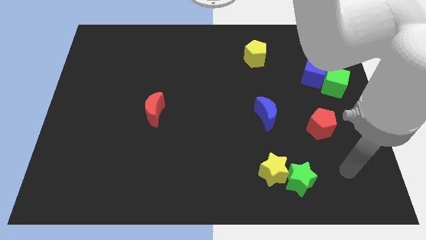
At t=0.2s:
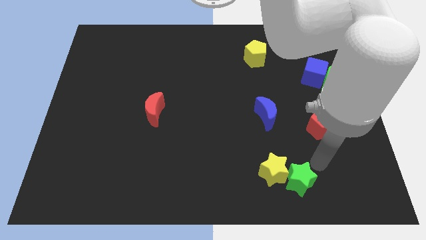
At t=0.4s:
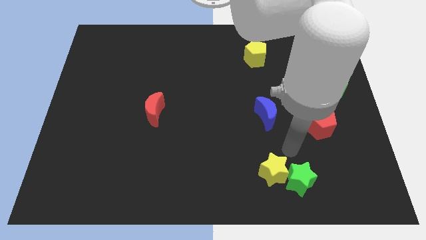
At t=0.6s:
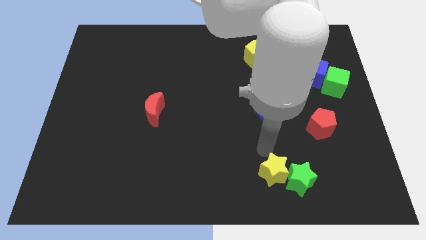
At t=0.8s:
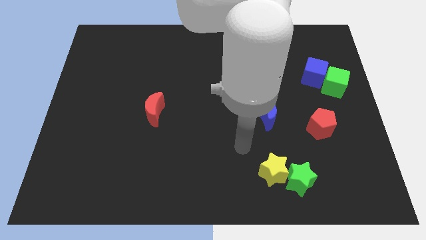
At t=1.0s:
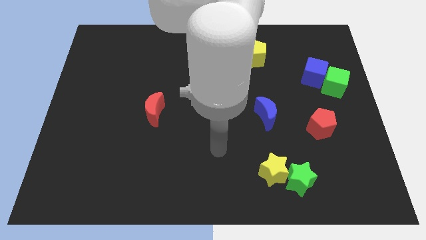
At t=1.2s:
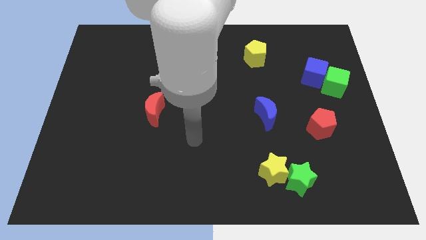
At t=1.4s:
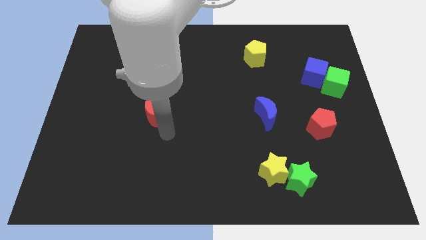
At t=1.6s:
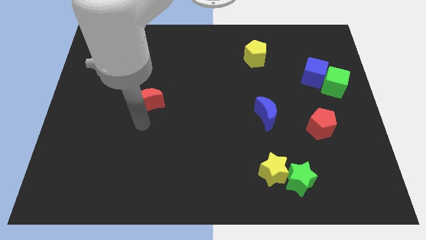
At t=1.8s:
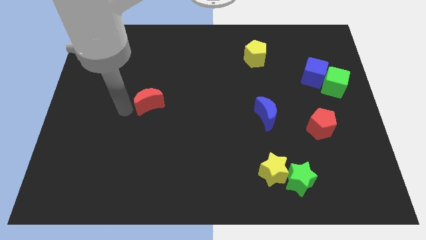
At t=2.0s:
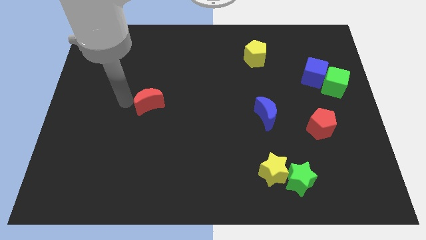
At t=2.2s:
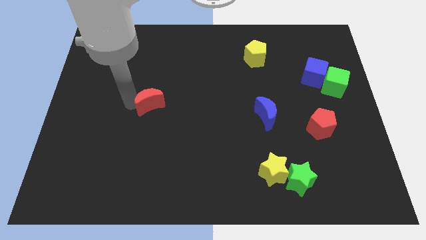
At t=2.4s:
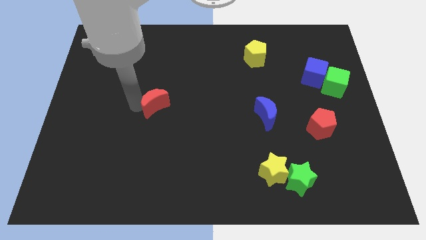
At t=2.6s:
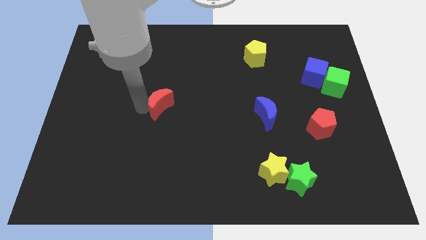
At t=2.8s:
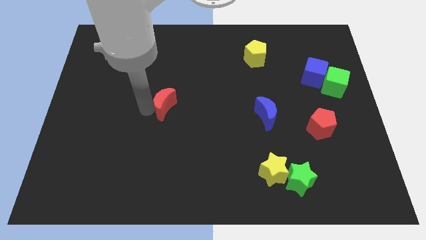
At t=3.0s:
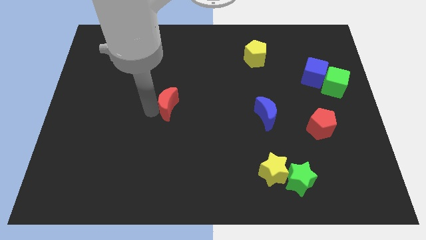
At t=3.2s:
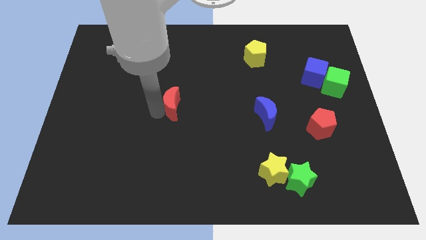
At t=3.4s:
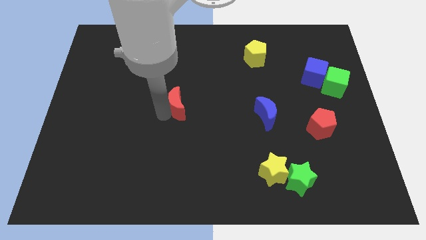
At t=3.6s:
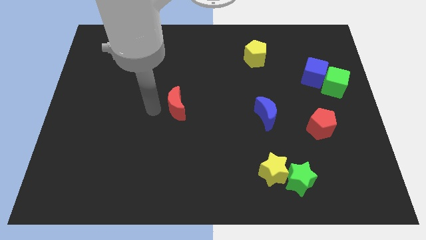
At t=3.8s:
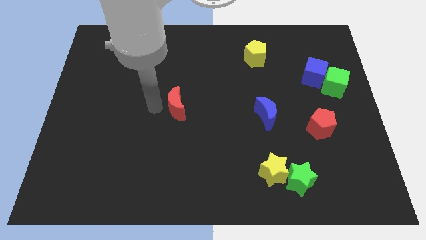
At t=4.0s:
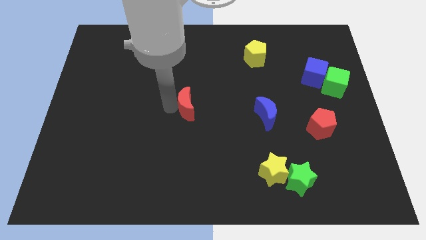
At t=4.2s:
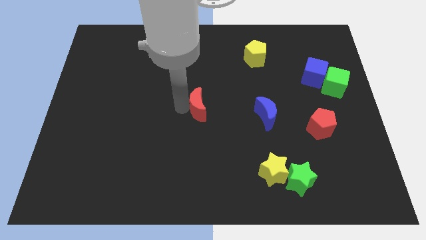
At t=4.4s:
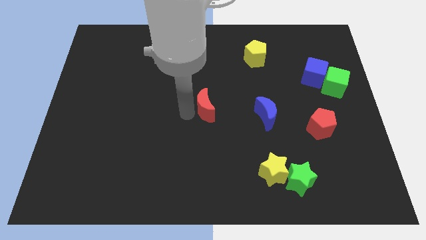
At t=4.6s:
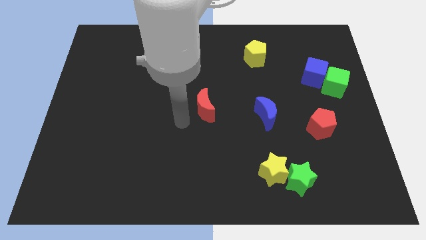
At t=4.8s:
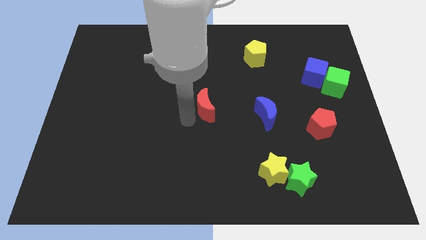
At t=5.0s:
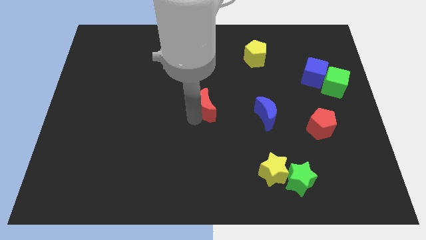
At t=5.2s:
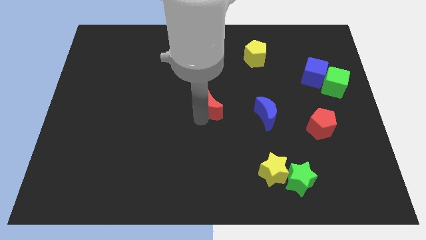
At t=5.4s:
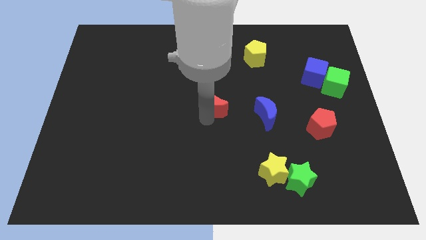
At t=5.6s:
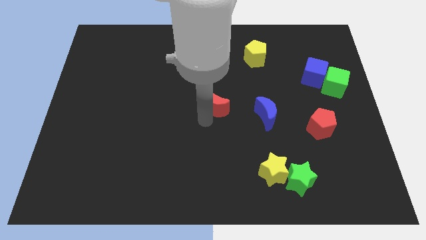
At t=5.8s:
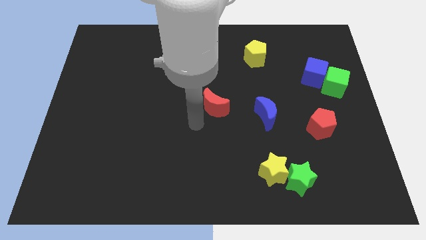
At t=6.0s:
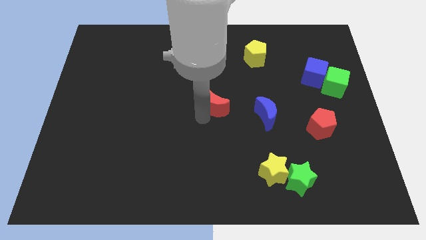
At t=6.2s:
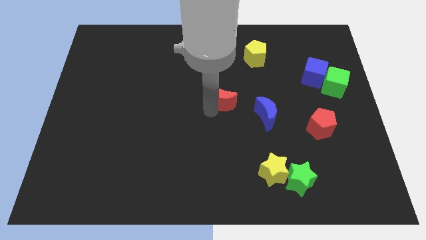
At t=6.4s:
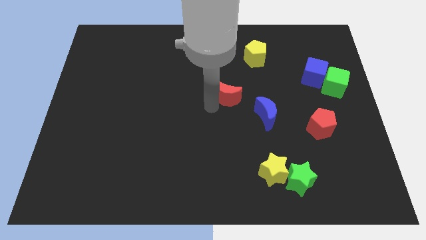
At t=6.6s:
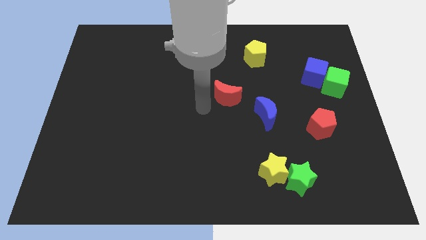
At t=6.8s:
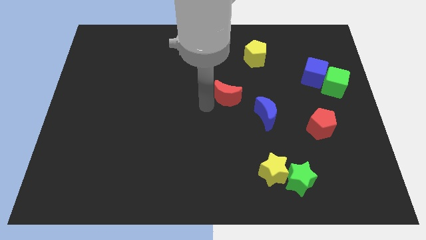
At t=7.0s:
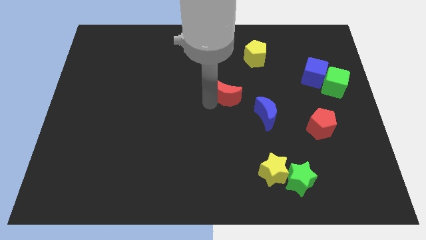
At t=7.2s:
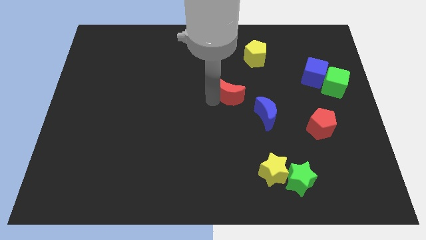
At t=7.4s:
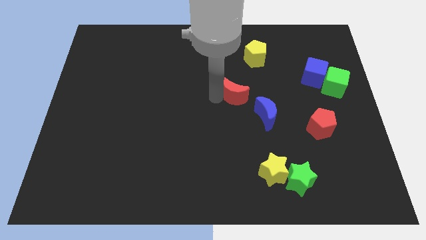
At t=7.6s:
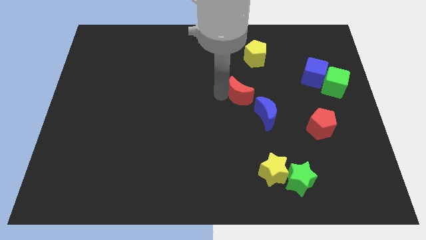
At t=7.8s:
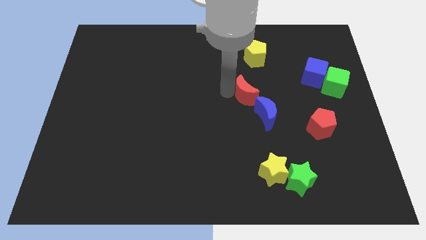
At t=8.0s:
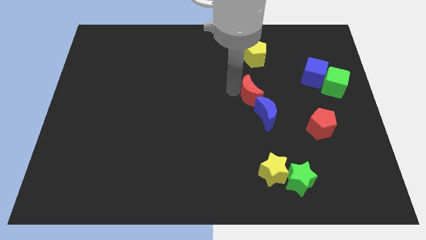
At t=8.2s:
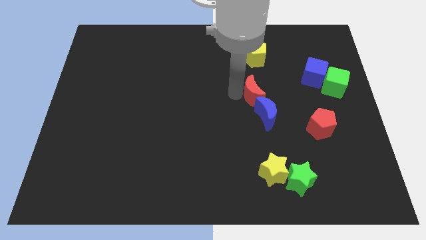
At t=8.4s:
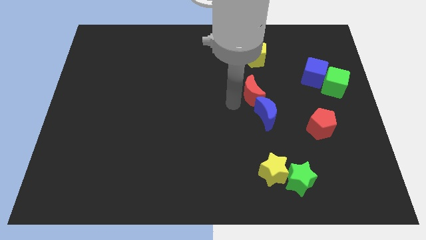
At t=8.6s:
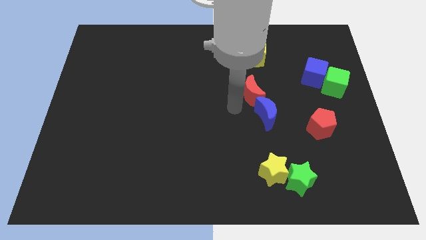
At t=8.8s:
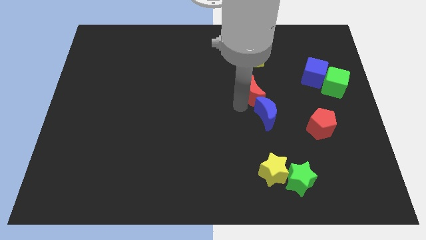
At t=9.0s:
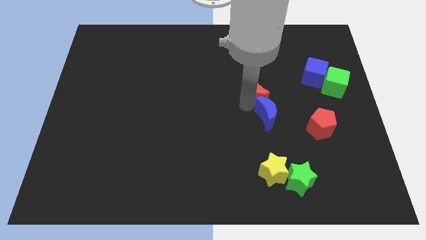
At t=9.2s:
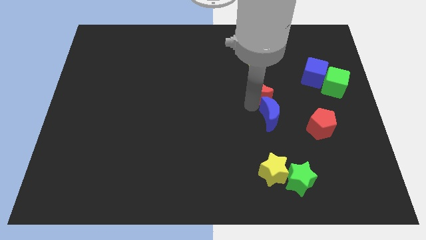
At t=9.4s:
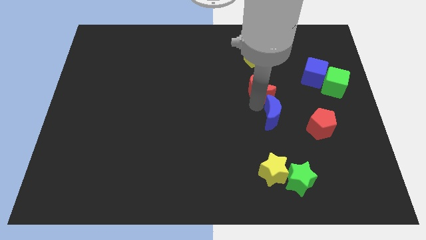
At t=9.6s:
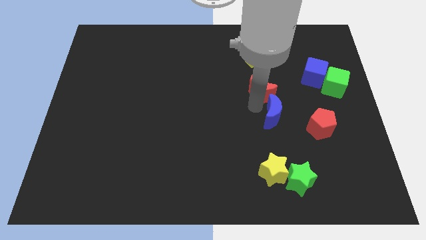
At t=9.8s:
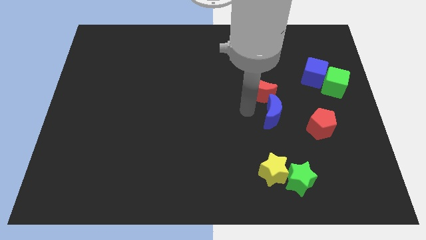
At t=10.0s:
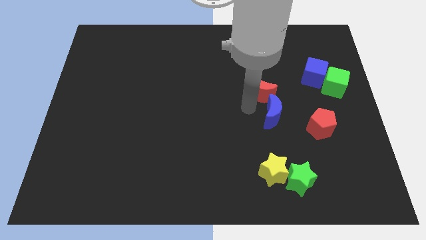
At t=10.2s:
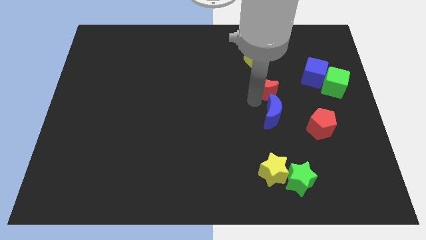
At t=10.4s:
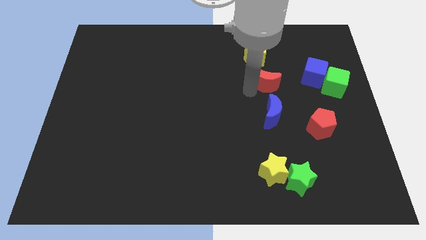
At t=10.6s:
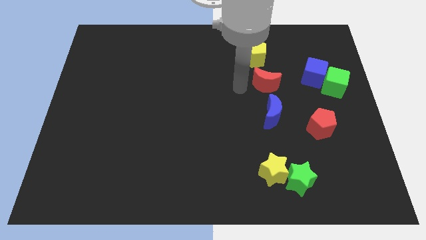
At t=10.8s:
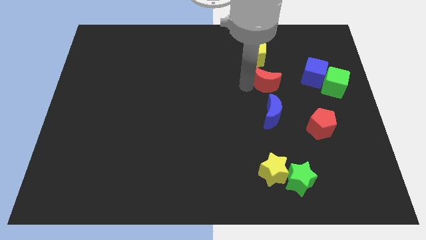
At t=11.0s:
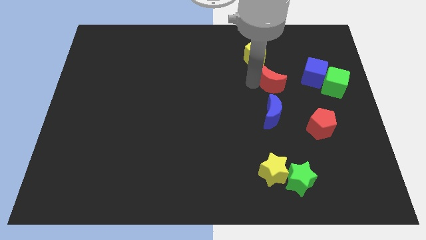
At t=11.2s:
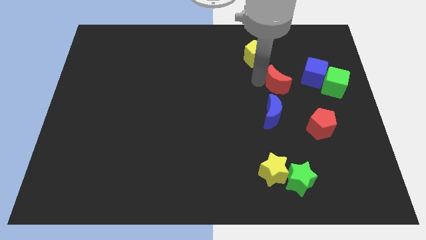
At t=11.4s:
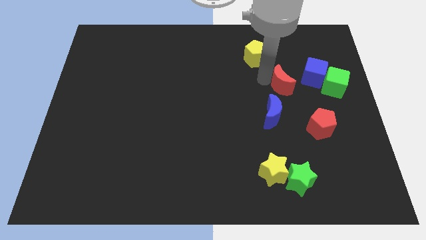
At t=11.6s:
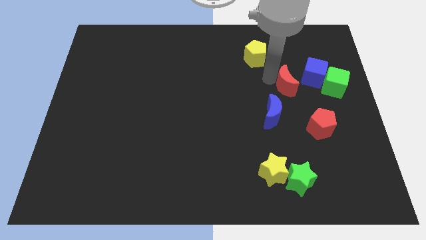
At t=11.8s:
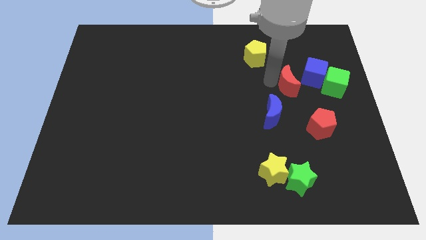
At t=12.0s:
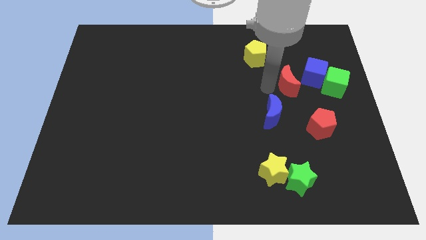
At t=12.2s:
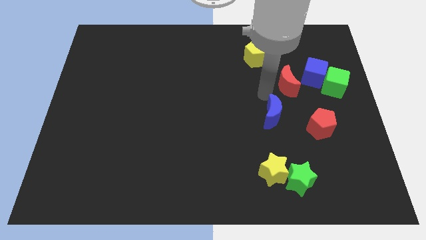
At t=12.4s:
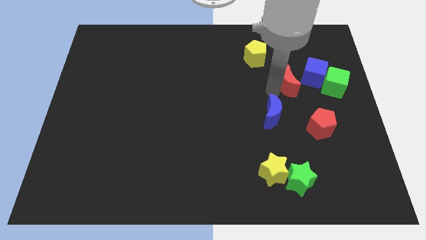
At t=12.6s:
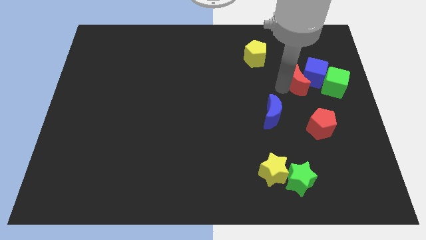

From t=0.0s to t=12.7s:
push the red moon next to the blue cube
